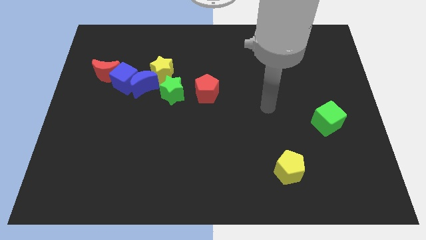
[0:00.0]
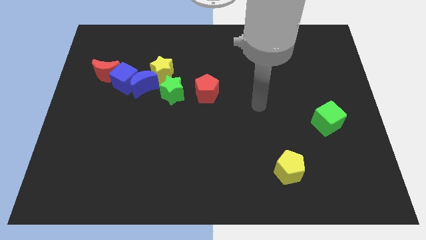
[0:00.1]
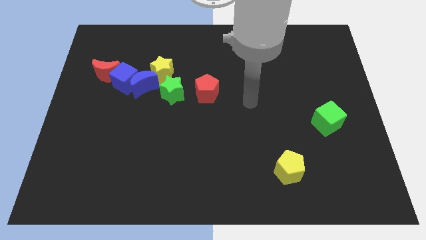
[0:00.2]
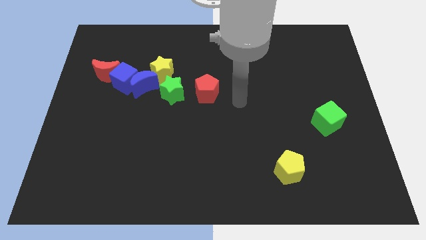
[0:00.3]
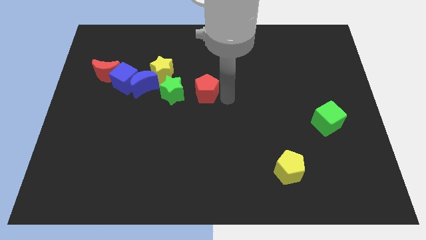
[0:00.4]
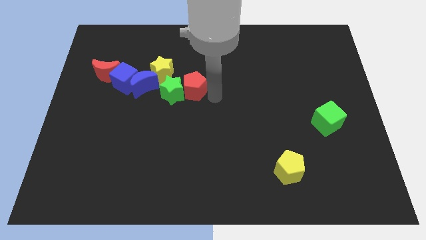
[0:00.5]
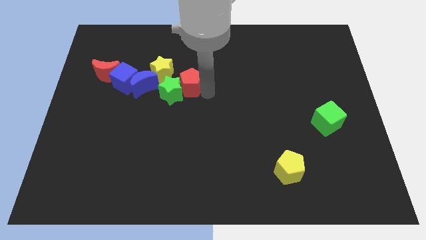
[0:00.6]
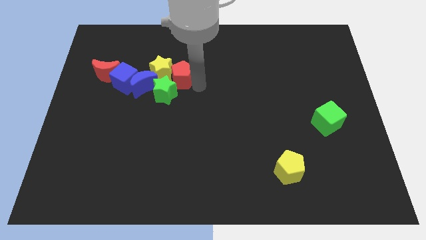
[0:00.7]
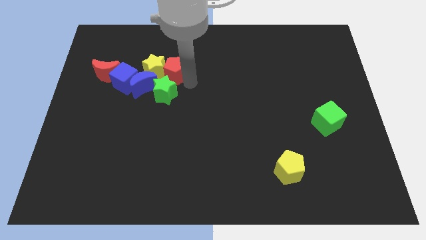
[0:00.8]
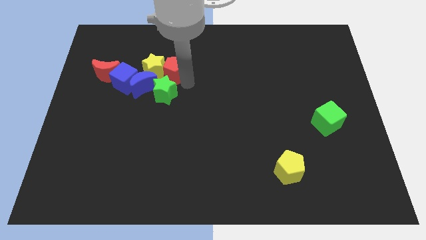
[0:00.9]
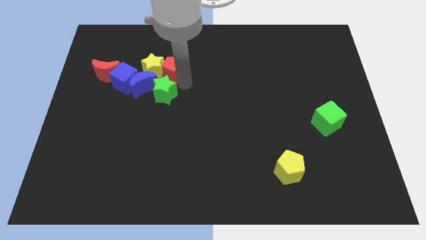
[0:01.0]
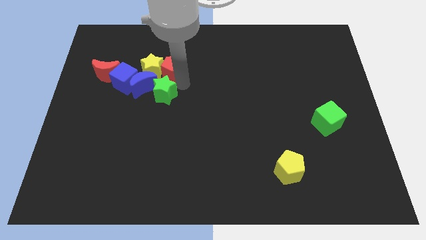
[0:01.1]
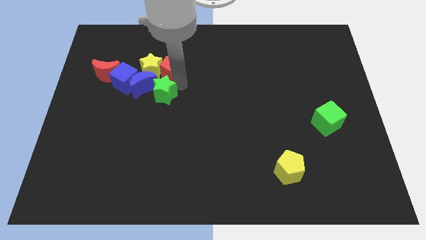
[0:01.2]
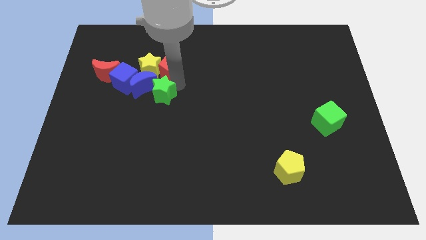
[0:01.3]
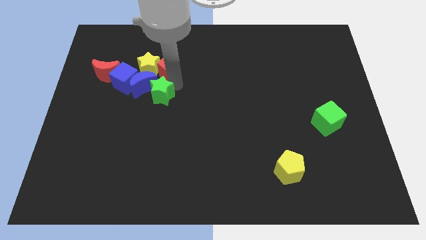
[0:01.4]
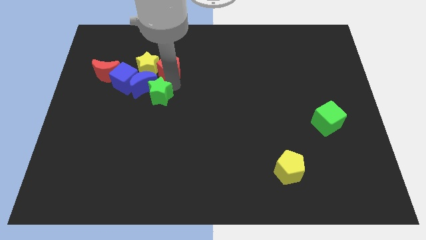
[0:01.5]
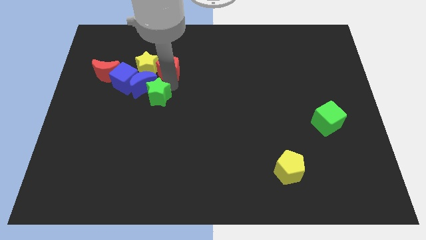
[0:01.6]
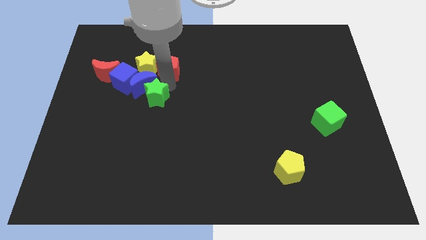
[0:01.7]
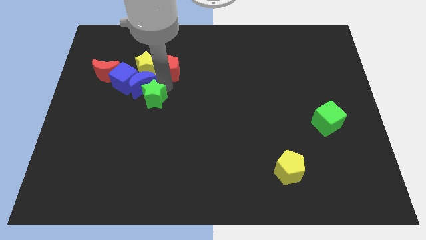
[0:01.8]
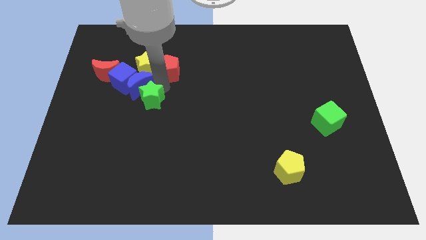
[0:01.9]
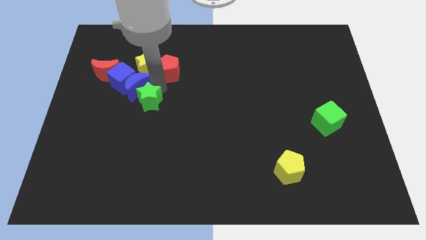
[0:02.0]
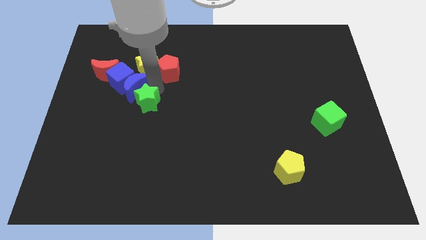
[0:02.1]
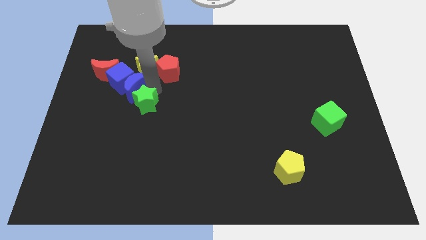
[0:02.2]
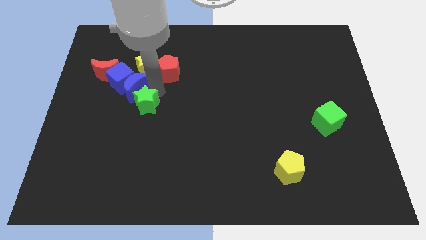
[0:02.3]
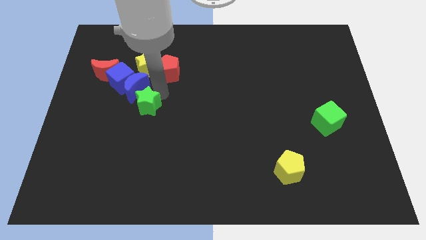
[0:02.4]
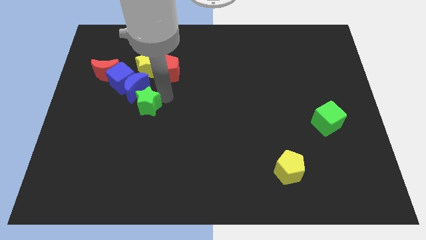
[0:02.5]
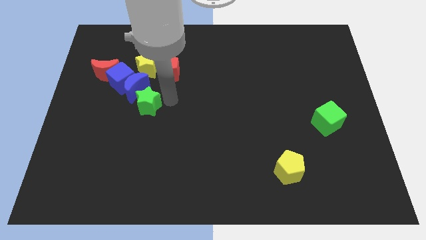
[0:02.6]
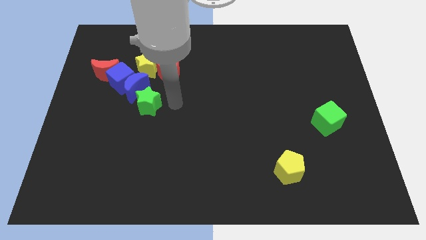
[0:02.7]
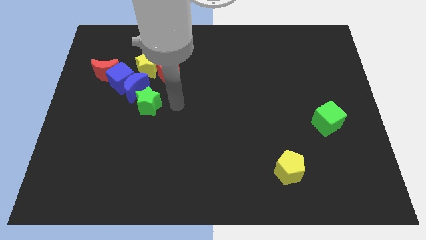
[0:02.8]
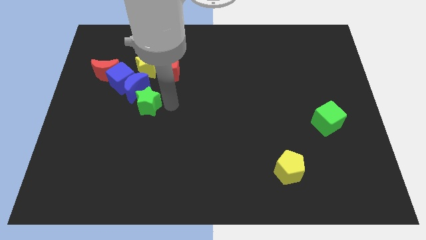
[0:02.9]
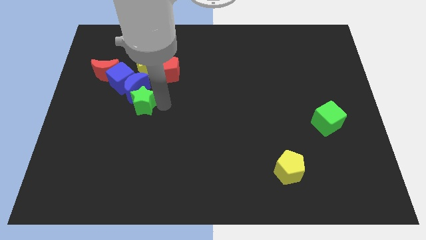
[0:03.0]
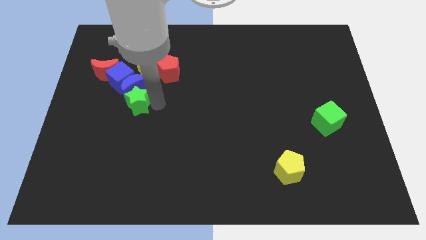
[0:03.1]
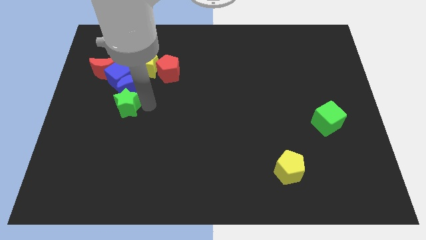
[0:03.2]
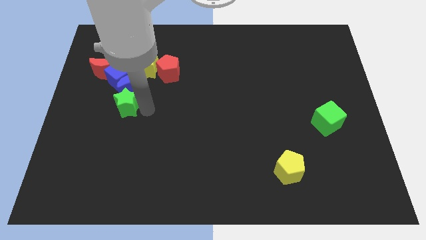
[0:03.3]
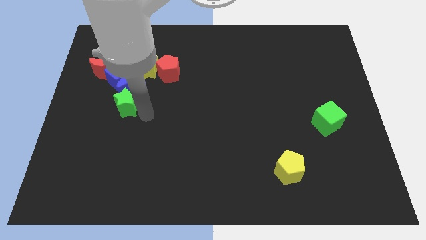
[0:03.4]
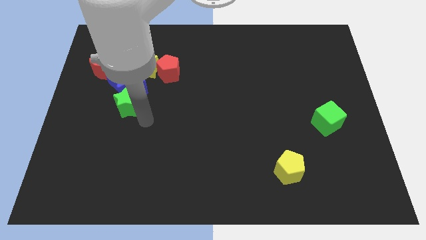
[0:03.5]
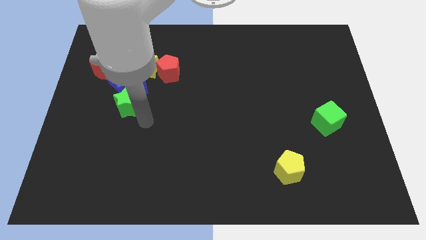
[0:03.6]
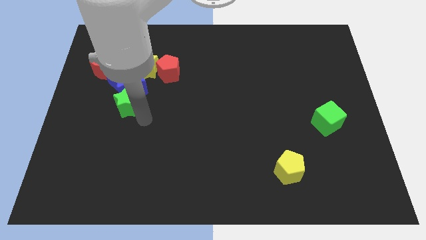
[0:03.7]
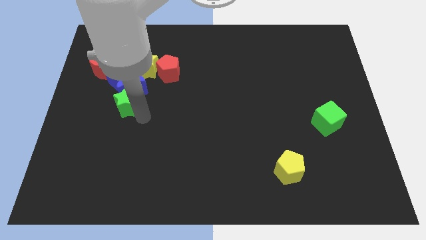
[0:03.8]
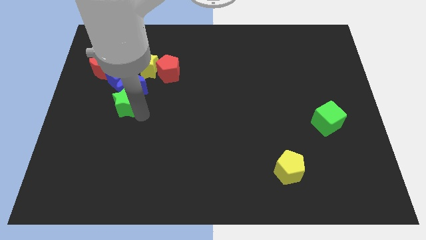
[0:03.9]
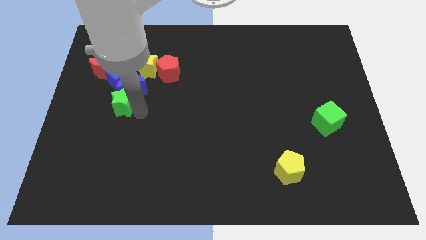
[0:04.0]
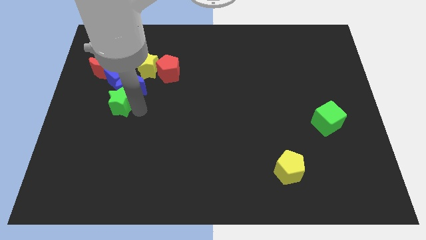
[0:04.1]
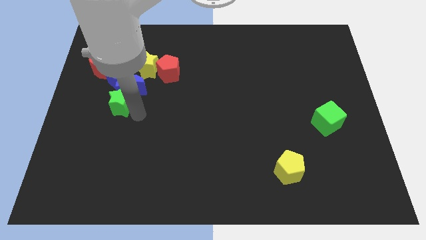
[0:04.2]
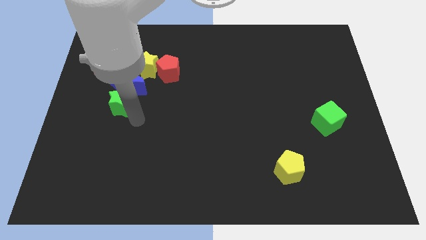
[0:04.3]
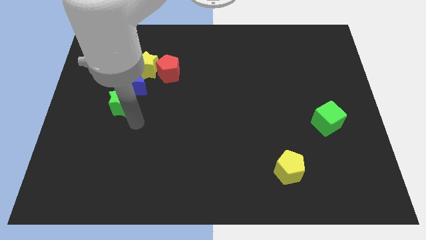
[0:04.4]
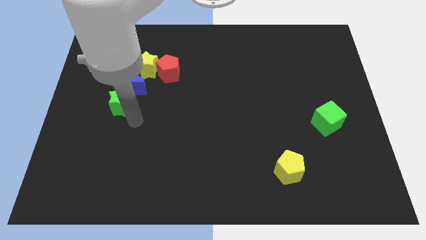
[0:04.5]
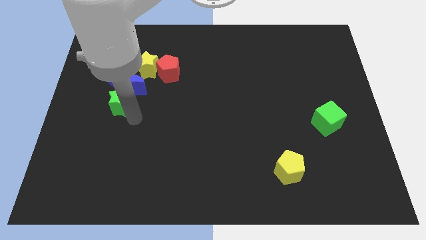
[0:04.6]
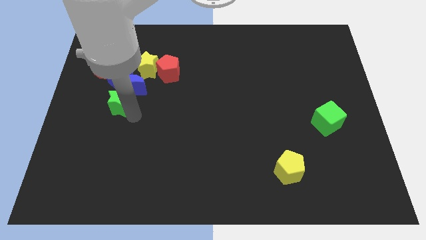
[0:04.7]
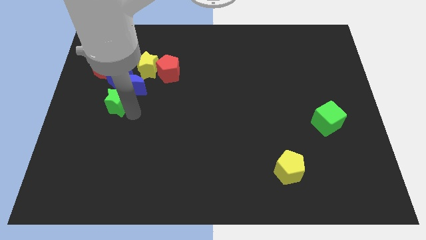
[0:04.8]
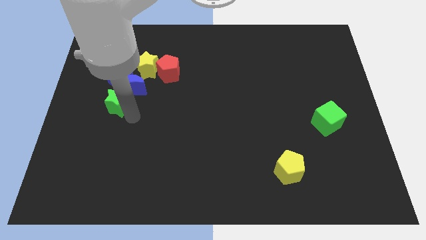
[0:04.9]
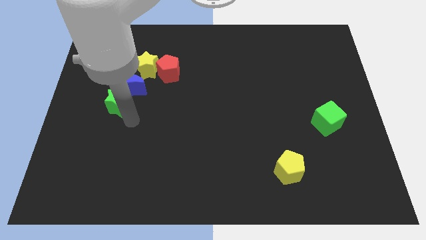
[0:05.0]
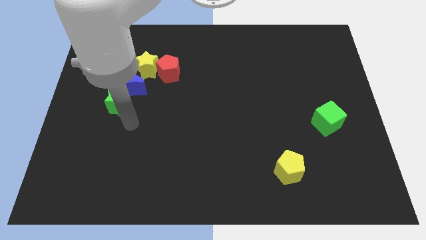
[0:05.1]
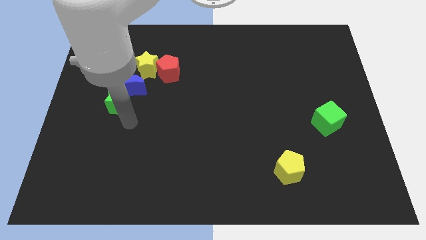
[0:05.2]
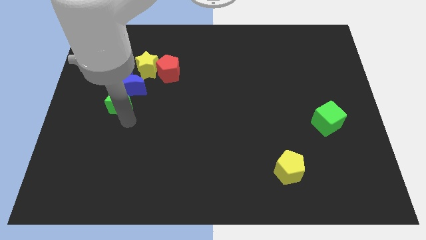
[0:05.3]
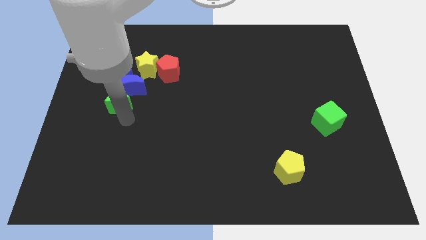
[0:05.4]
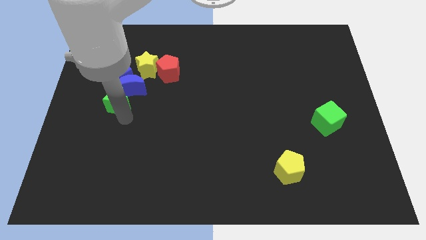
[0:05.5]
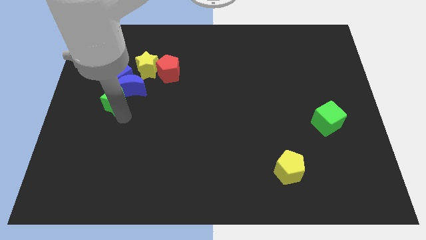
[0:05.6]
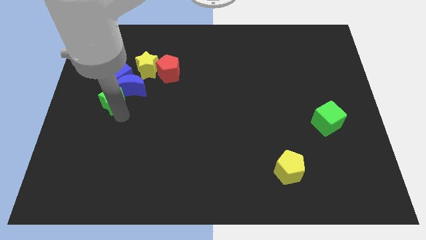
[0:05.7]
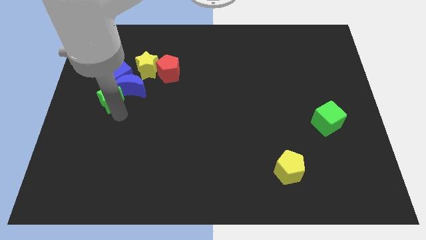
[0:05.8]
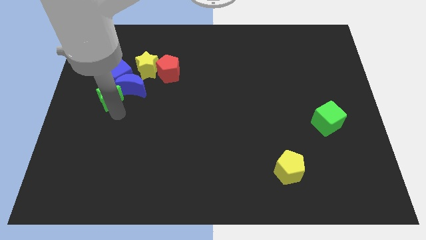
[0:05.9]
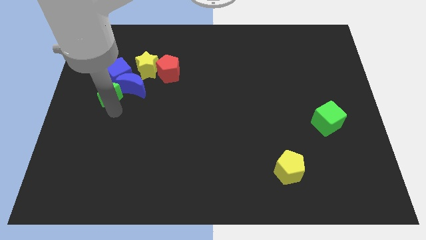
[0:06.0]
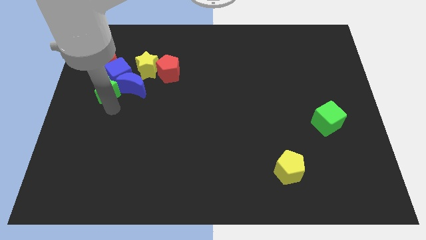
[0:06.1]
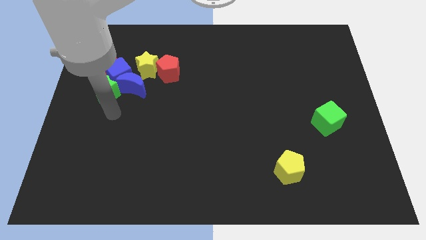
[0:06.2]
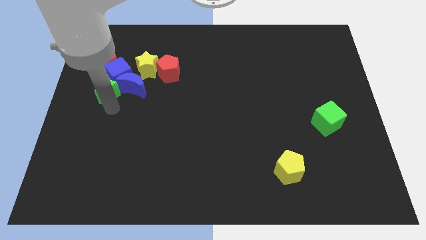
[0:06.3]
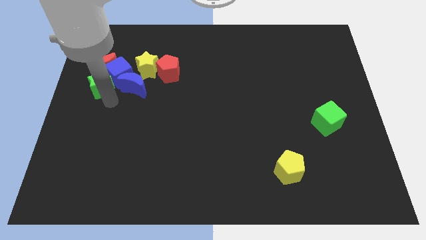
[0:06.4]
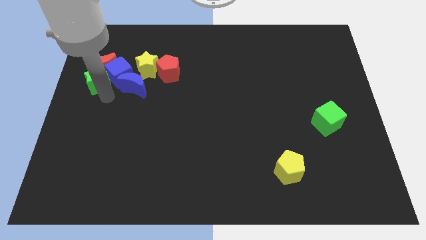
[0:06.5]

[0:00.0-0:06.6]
move the green star next to the red moon

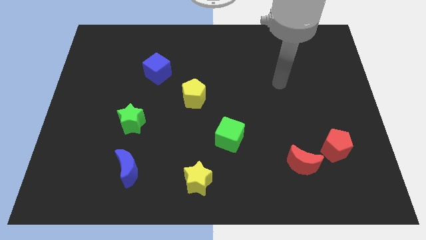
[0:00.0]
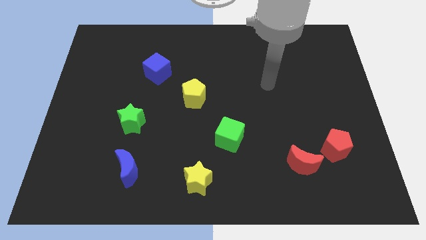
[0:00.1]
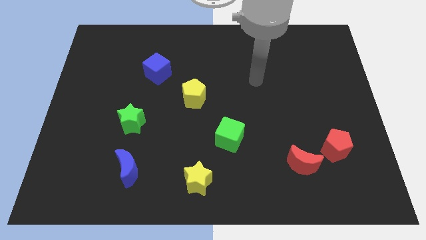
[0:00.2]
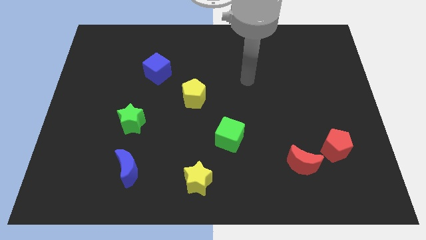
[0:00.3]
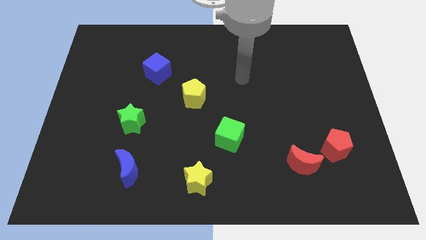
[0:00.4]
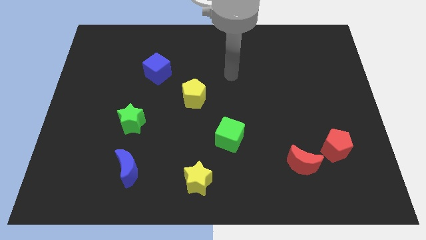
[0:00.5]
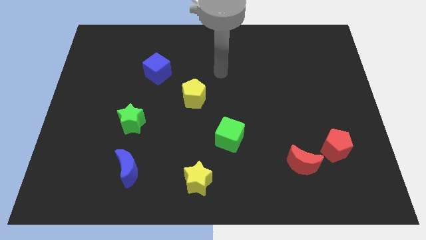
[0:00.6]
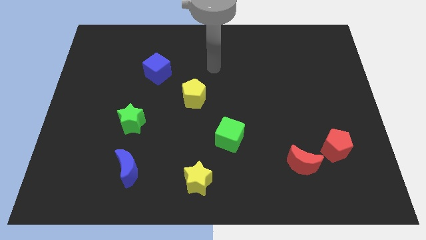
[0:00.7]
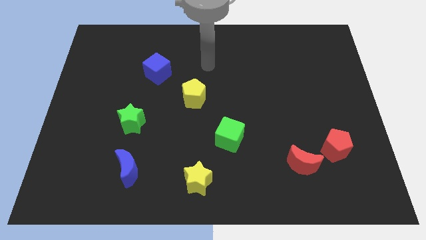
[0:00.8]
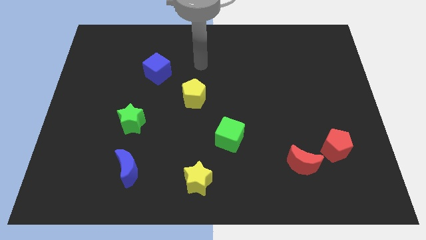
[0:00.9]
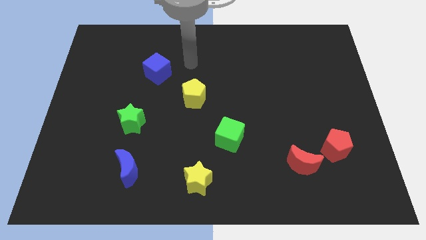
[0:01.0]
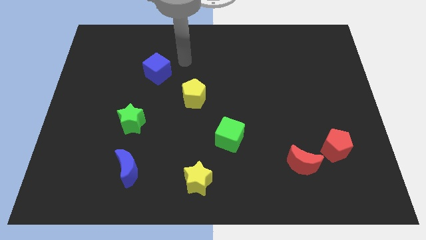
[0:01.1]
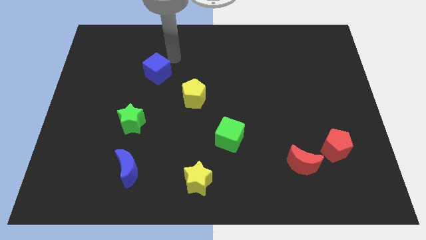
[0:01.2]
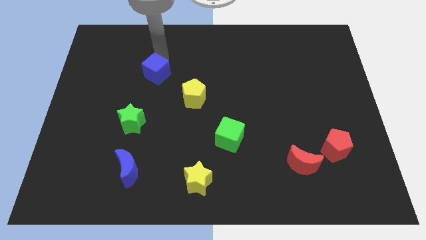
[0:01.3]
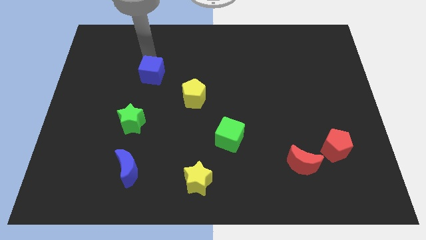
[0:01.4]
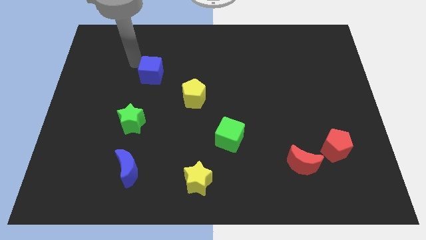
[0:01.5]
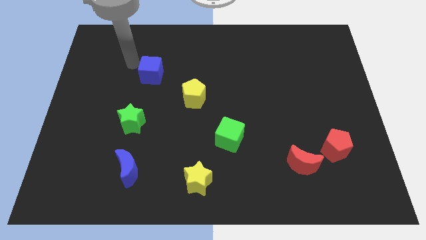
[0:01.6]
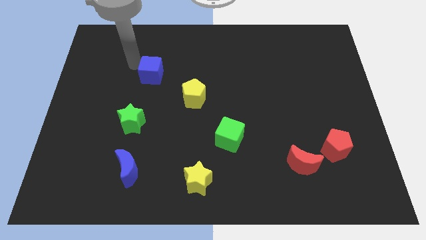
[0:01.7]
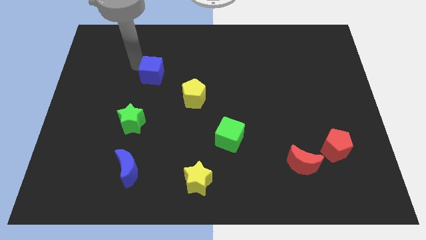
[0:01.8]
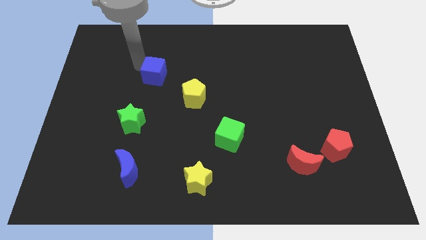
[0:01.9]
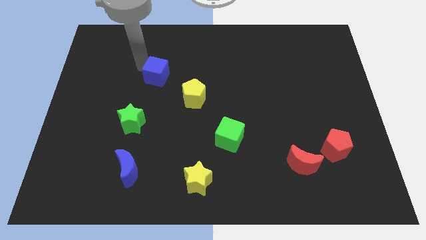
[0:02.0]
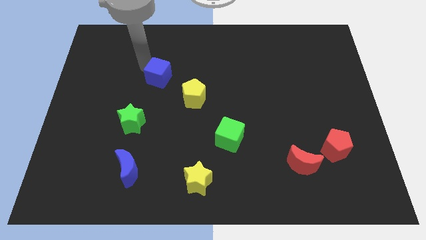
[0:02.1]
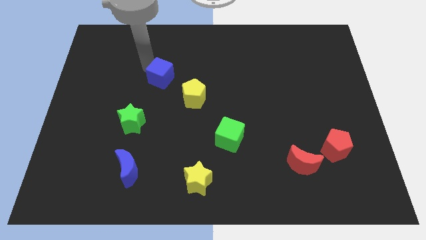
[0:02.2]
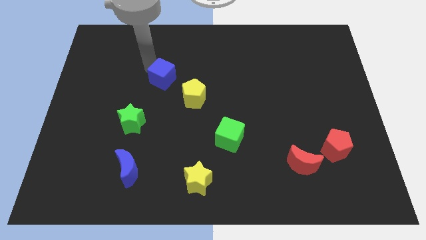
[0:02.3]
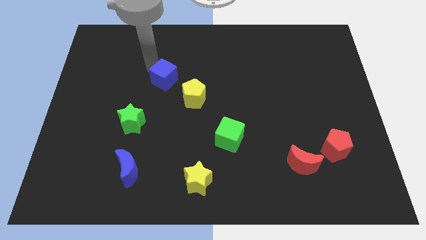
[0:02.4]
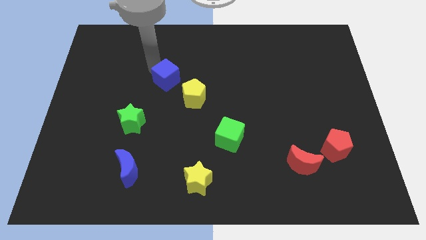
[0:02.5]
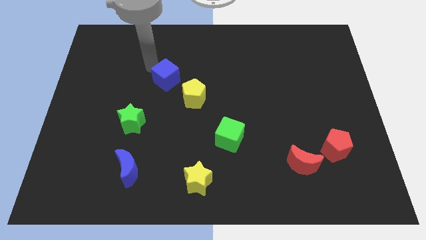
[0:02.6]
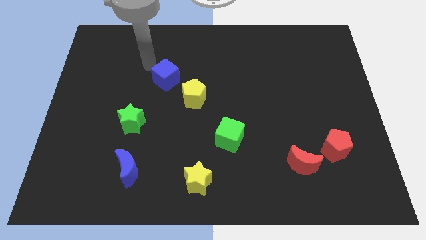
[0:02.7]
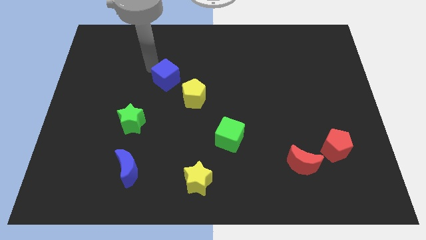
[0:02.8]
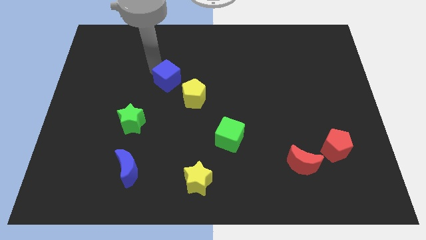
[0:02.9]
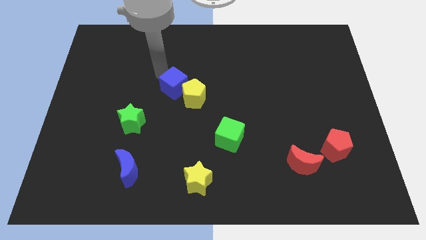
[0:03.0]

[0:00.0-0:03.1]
push the blue cube to the yellow pentagon
